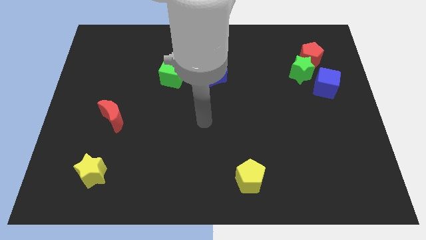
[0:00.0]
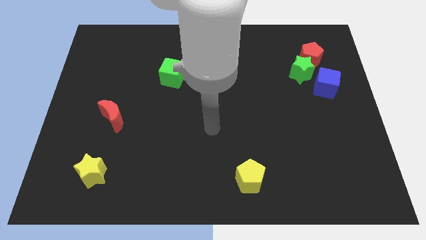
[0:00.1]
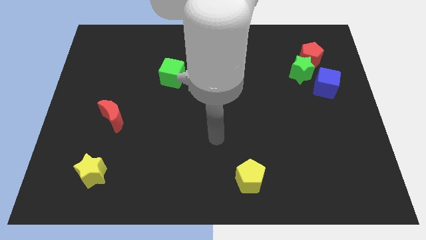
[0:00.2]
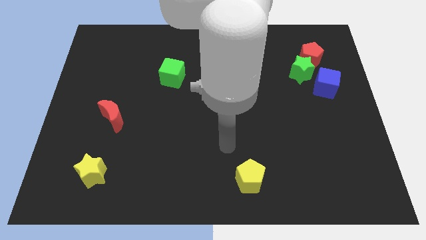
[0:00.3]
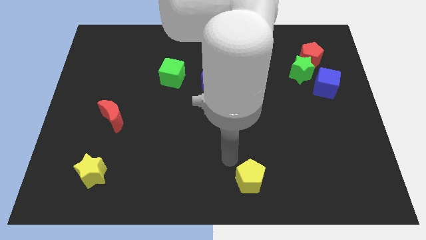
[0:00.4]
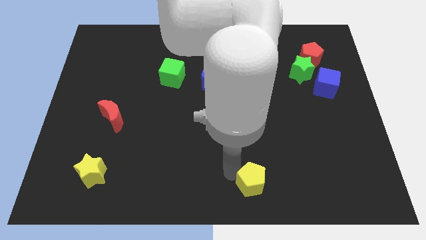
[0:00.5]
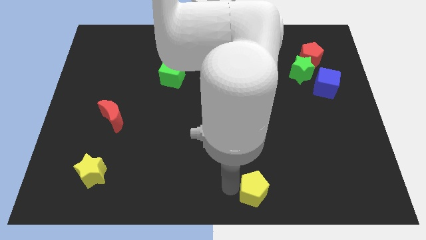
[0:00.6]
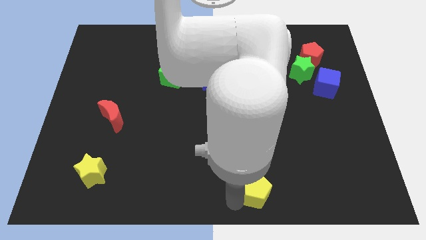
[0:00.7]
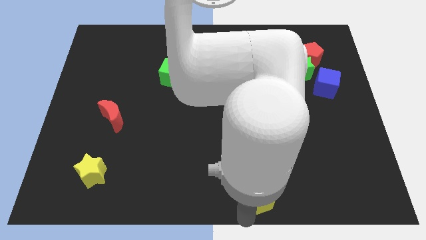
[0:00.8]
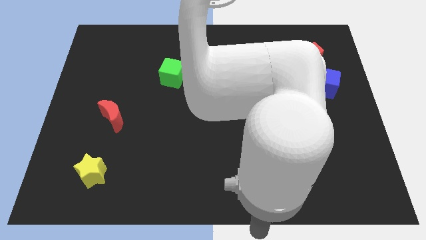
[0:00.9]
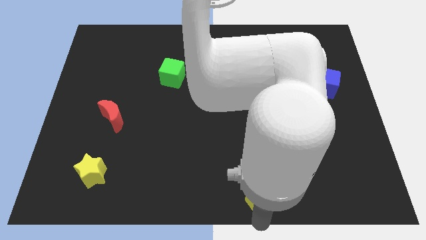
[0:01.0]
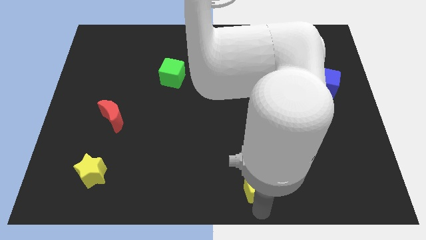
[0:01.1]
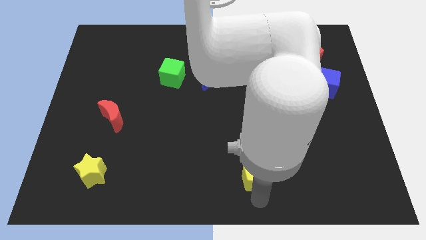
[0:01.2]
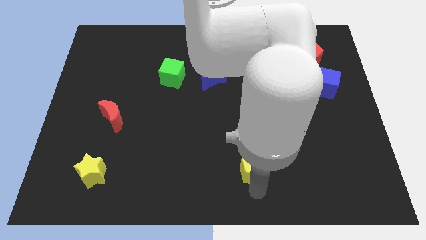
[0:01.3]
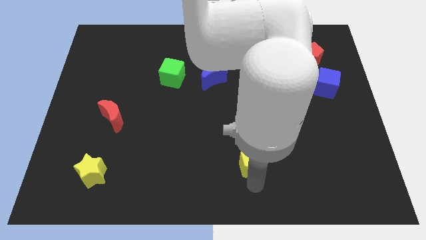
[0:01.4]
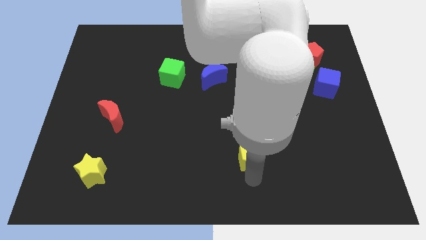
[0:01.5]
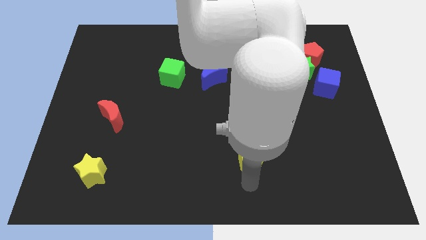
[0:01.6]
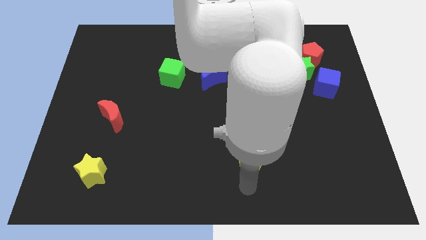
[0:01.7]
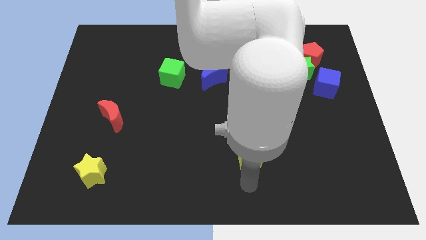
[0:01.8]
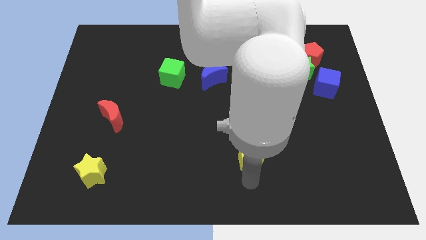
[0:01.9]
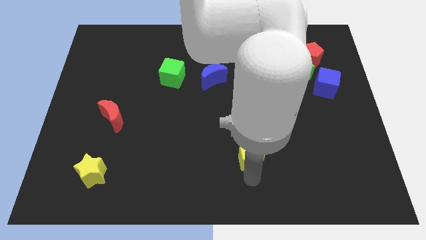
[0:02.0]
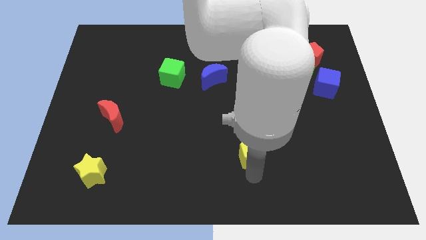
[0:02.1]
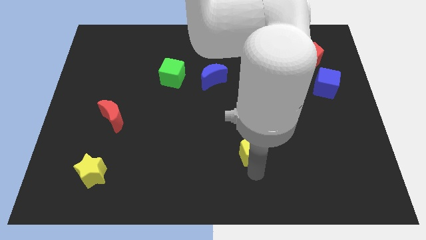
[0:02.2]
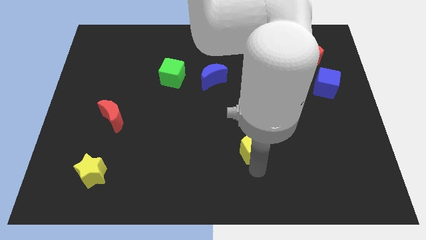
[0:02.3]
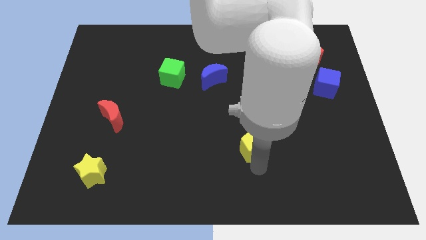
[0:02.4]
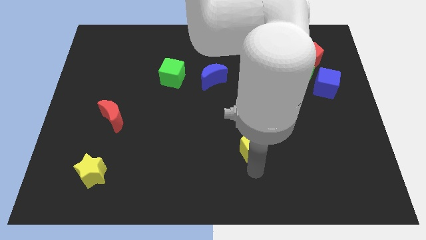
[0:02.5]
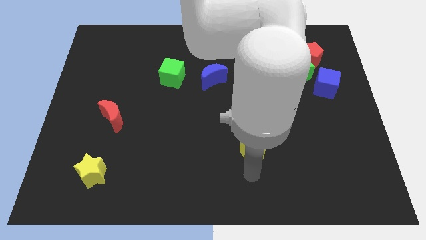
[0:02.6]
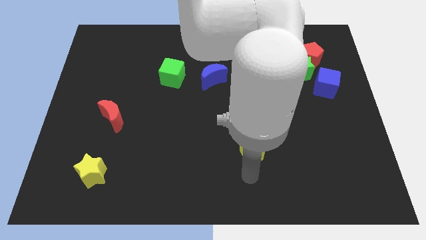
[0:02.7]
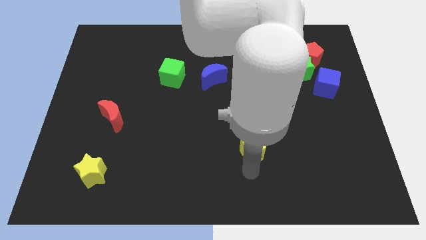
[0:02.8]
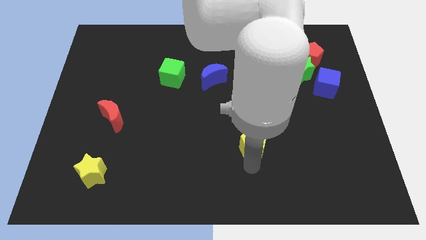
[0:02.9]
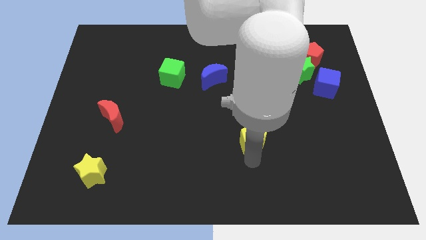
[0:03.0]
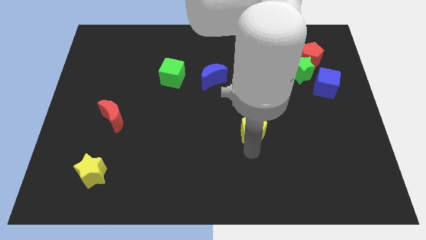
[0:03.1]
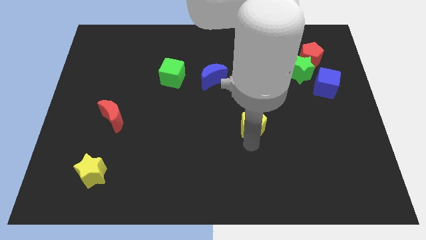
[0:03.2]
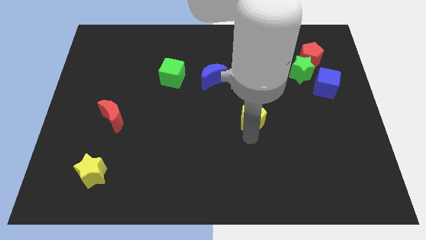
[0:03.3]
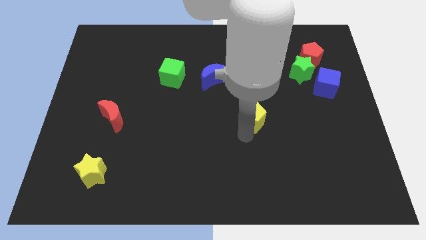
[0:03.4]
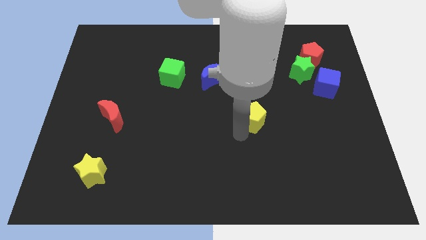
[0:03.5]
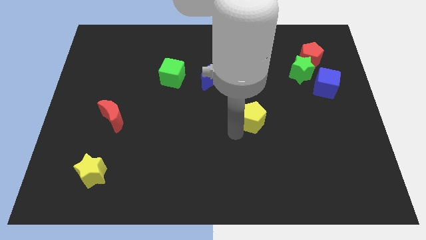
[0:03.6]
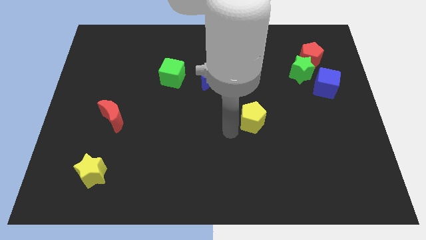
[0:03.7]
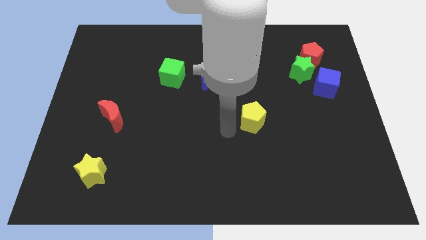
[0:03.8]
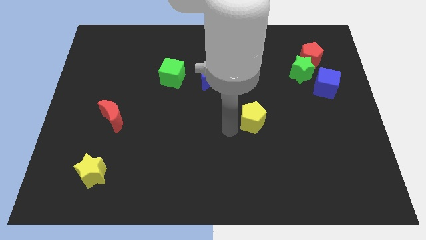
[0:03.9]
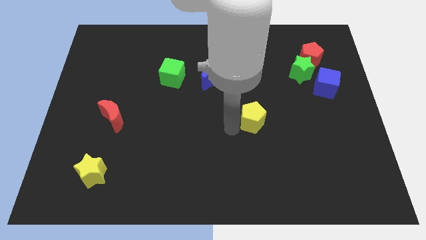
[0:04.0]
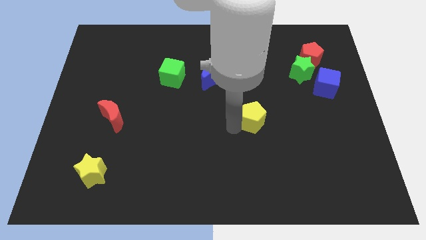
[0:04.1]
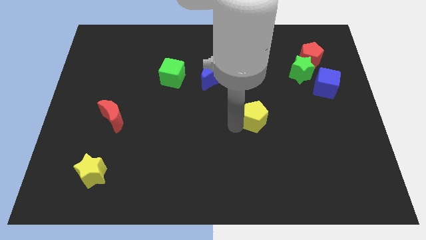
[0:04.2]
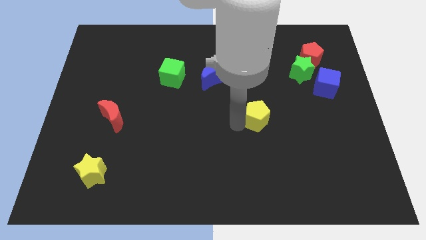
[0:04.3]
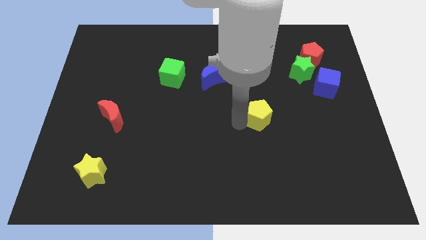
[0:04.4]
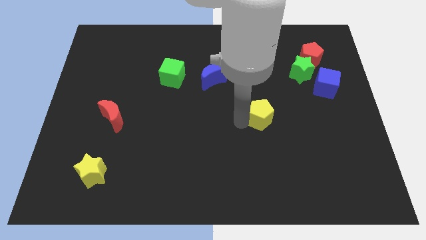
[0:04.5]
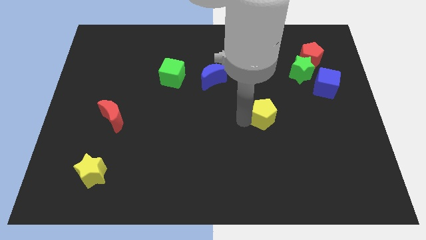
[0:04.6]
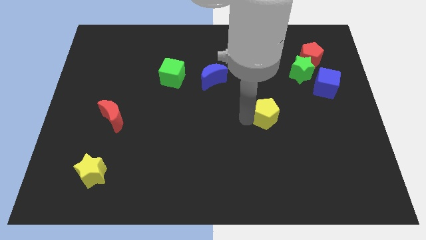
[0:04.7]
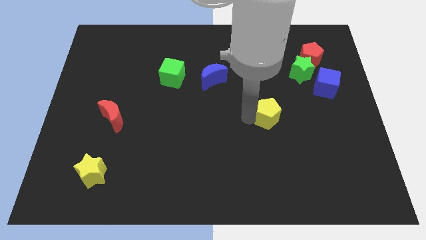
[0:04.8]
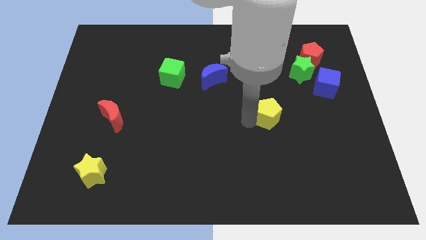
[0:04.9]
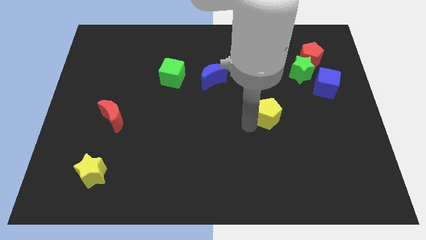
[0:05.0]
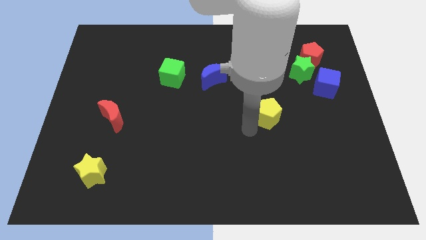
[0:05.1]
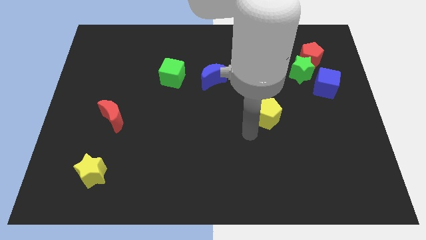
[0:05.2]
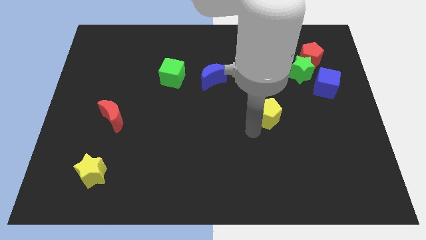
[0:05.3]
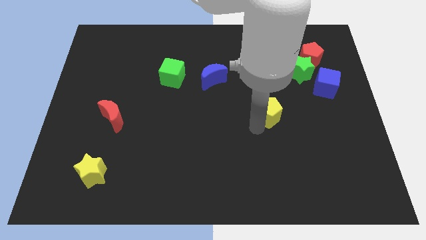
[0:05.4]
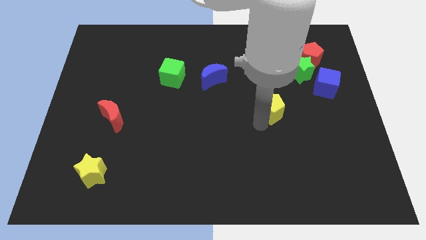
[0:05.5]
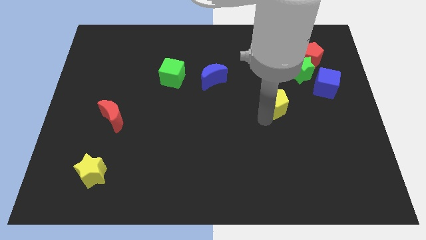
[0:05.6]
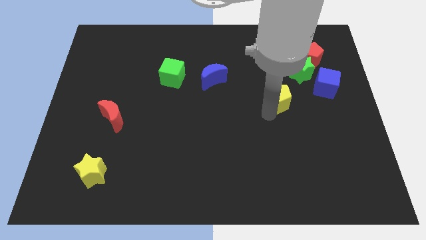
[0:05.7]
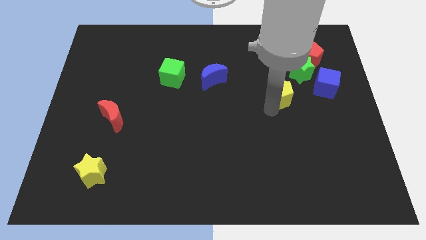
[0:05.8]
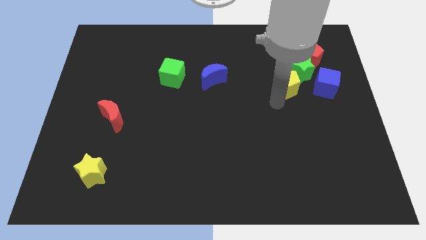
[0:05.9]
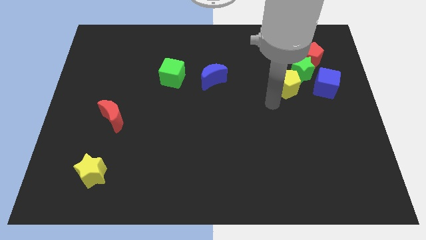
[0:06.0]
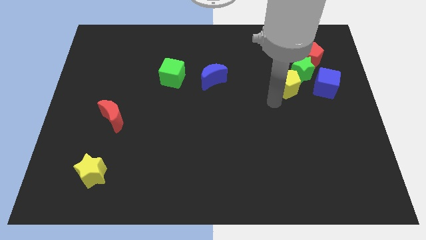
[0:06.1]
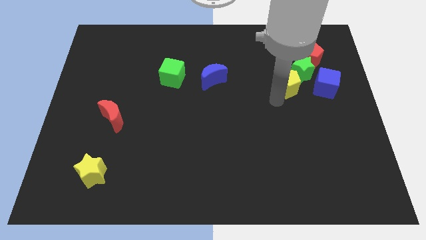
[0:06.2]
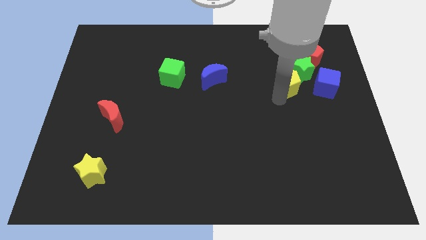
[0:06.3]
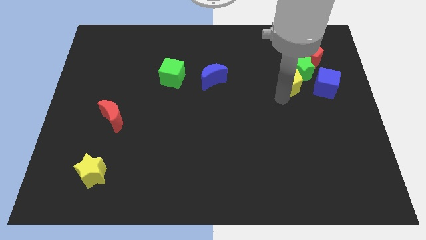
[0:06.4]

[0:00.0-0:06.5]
put the yellow pentagon next to the green star

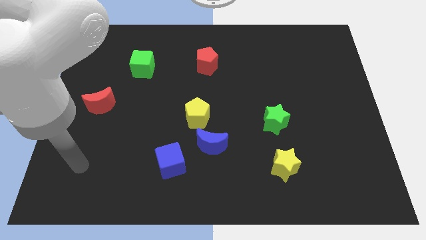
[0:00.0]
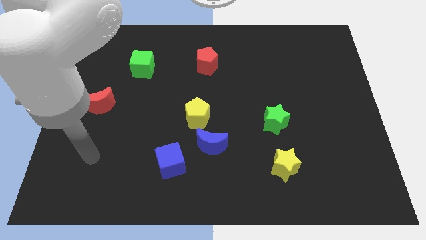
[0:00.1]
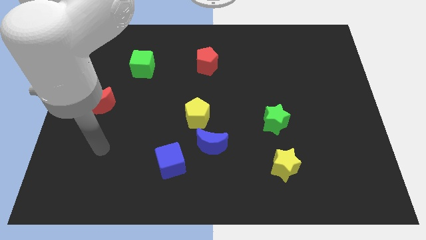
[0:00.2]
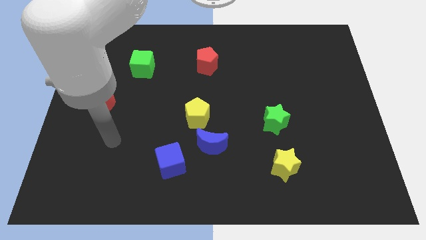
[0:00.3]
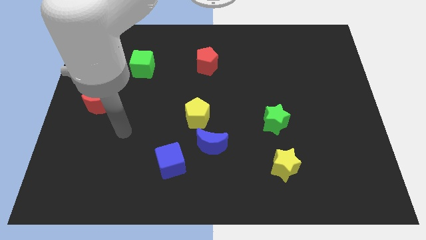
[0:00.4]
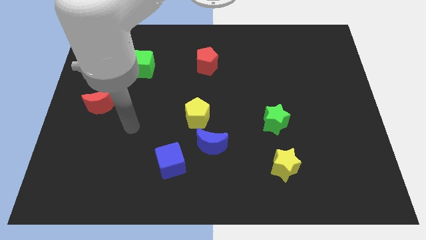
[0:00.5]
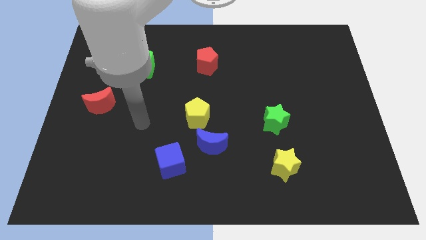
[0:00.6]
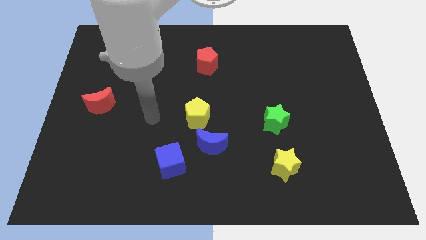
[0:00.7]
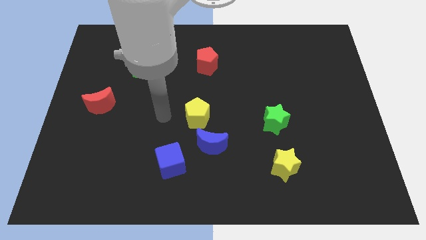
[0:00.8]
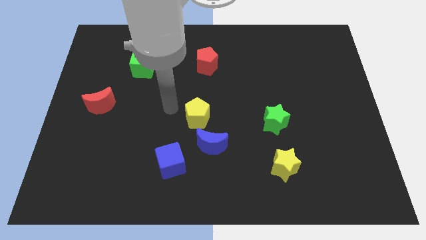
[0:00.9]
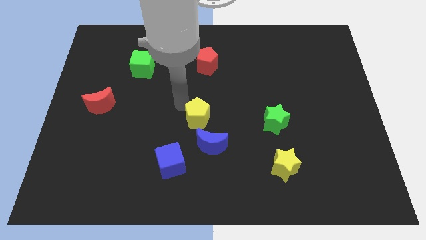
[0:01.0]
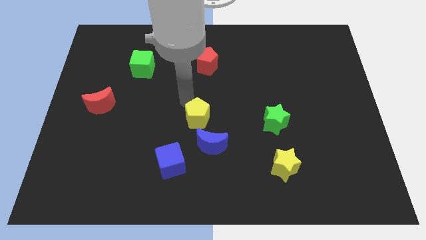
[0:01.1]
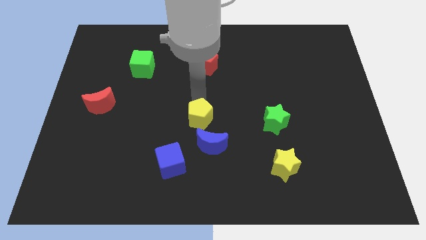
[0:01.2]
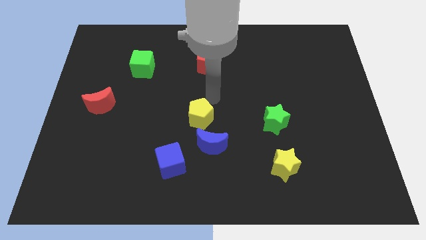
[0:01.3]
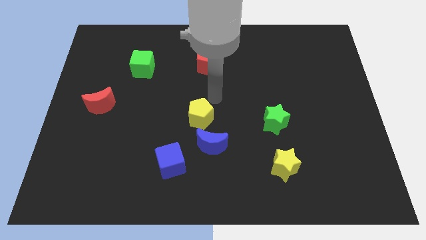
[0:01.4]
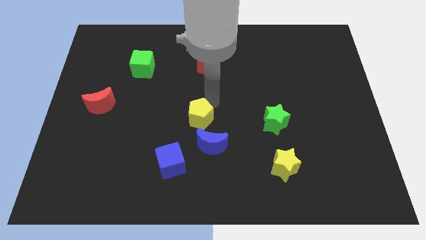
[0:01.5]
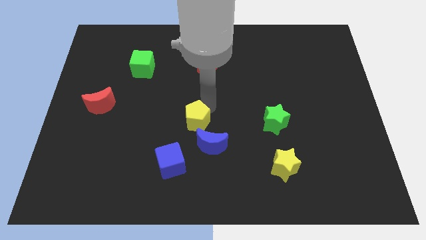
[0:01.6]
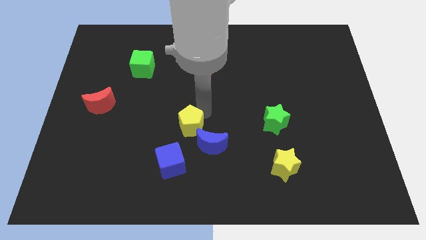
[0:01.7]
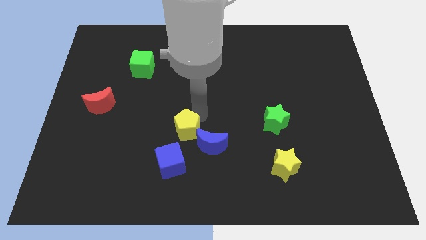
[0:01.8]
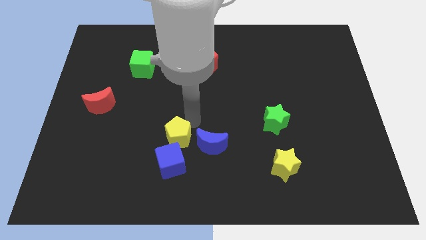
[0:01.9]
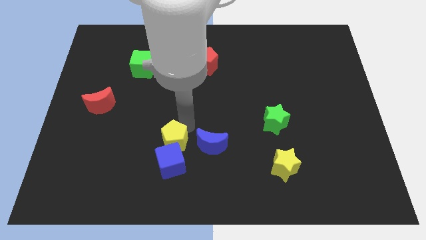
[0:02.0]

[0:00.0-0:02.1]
push the yellow pentagon towards the blue cube
